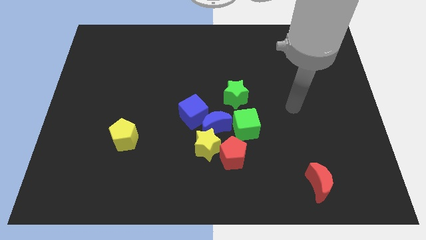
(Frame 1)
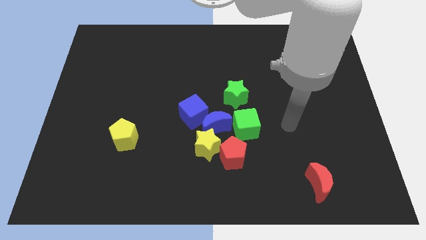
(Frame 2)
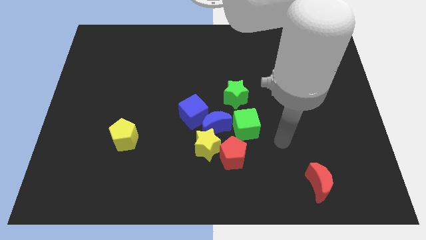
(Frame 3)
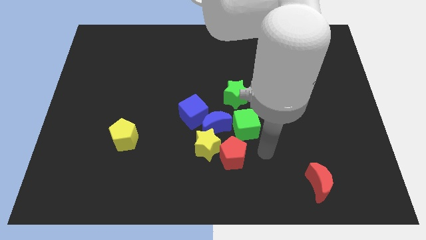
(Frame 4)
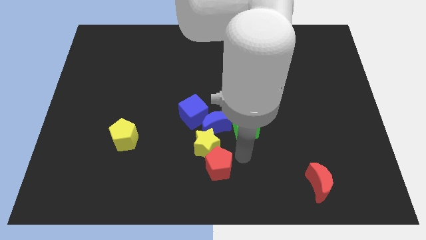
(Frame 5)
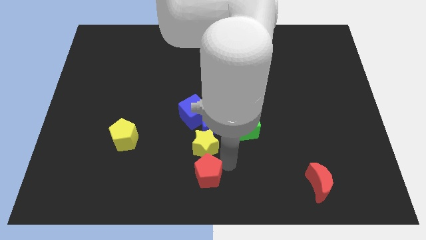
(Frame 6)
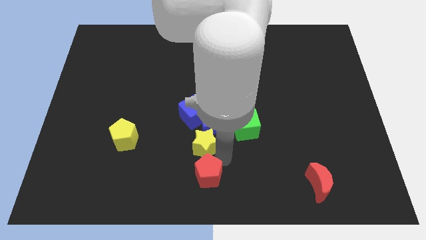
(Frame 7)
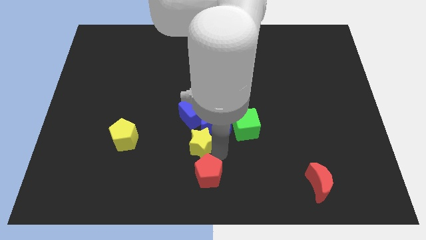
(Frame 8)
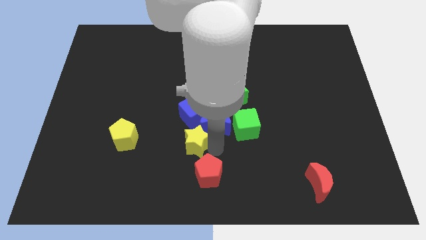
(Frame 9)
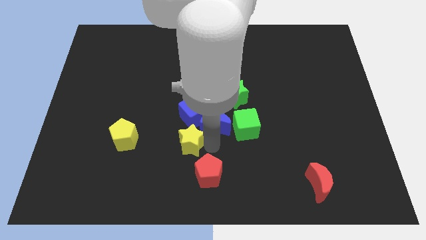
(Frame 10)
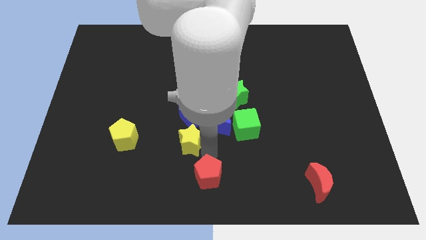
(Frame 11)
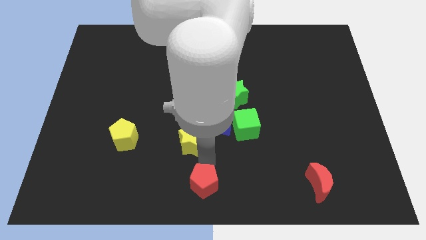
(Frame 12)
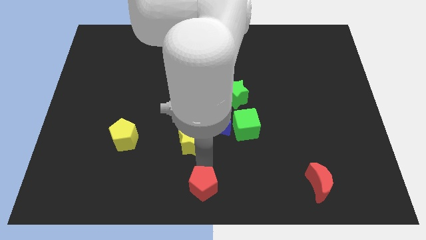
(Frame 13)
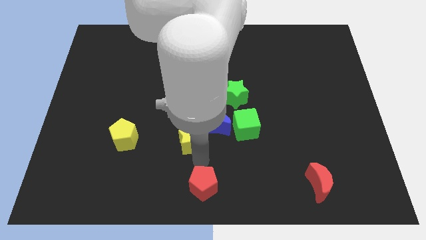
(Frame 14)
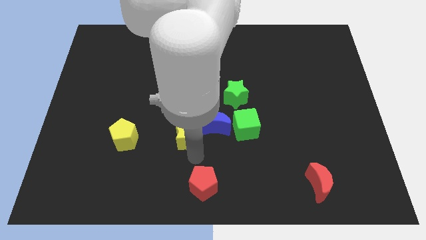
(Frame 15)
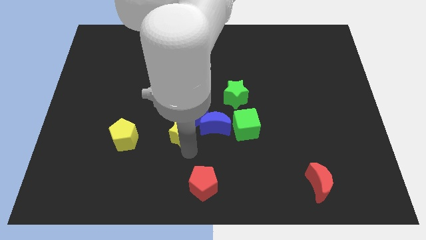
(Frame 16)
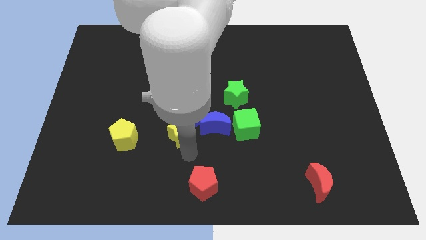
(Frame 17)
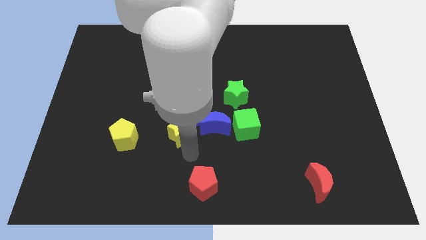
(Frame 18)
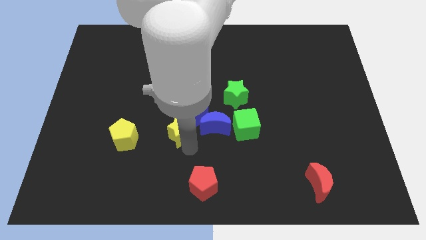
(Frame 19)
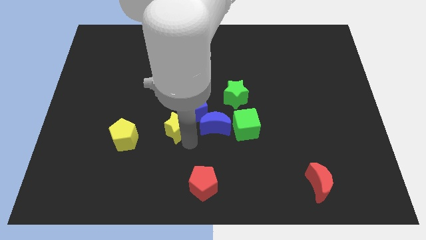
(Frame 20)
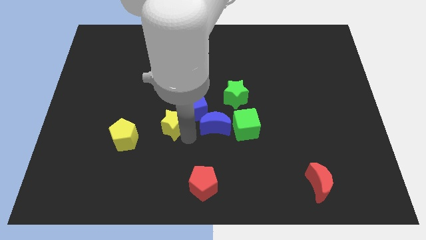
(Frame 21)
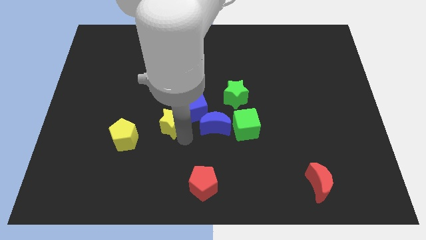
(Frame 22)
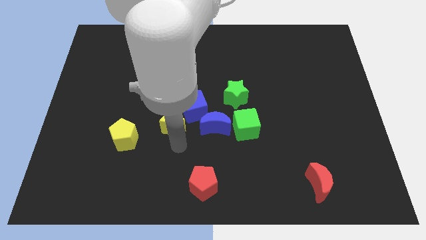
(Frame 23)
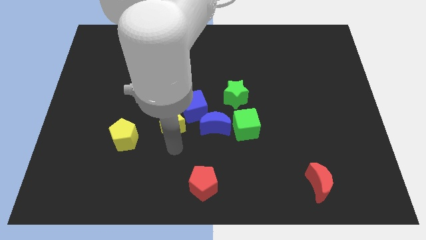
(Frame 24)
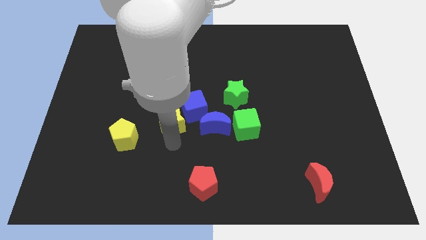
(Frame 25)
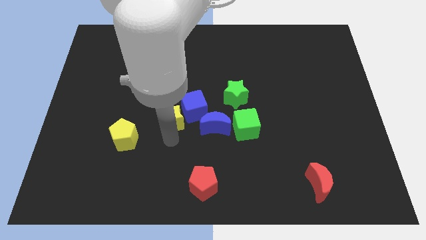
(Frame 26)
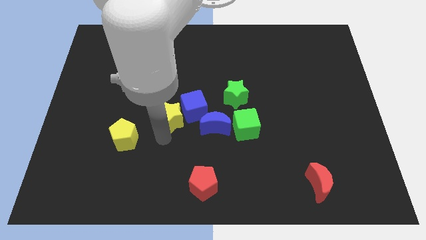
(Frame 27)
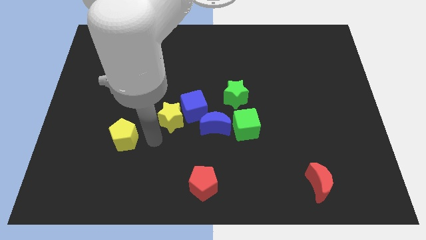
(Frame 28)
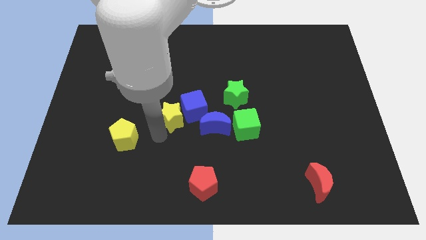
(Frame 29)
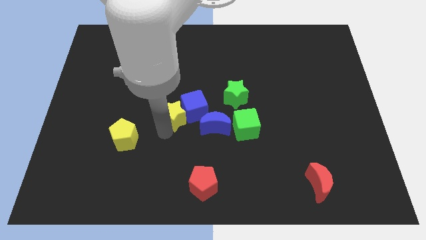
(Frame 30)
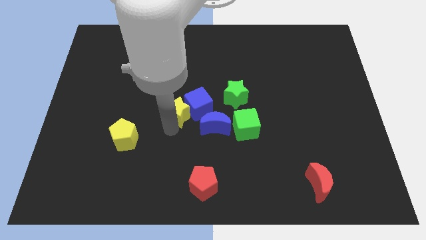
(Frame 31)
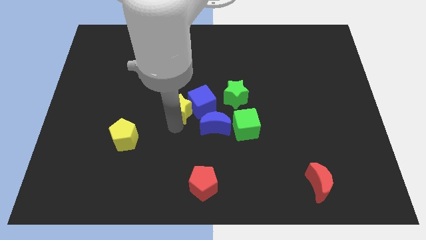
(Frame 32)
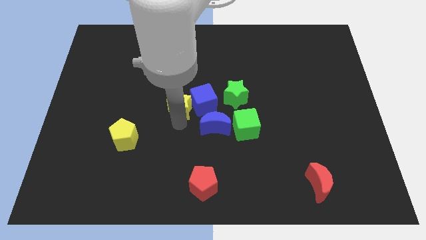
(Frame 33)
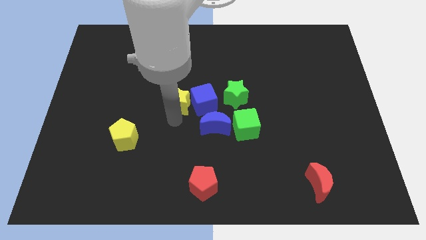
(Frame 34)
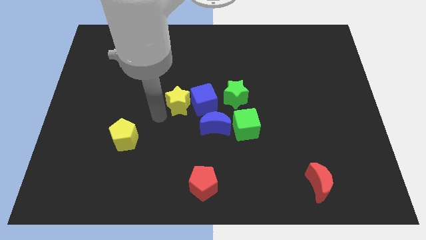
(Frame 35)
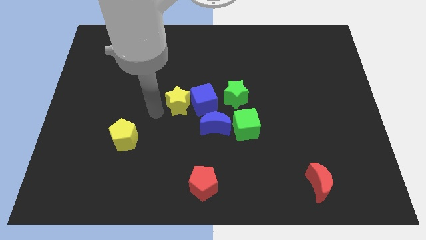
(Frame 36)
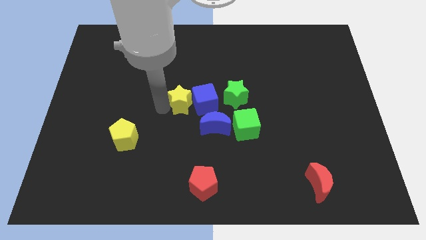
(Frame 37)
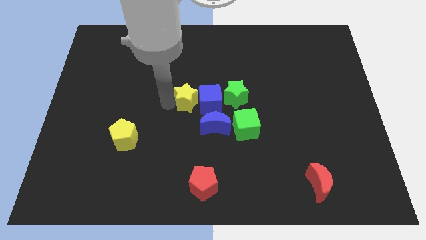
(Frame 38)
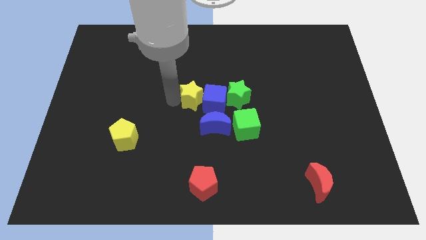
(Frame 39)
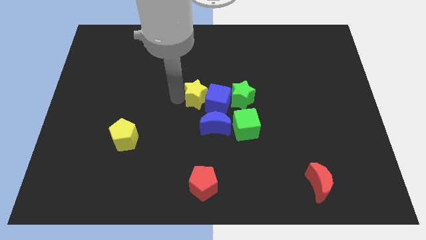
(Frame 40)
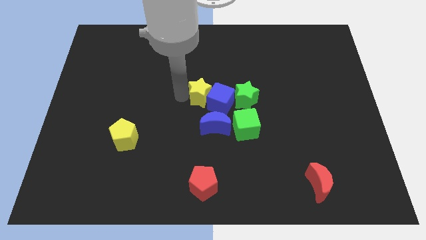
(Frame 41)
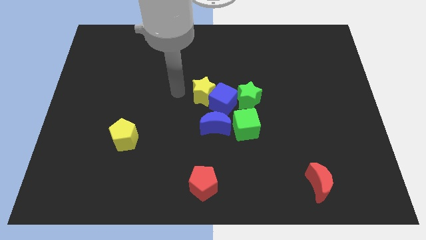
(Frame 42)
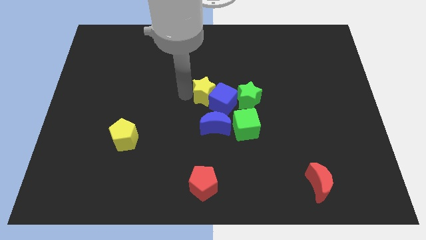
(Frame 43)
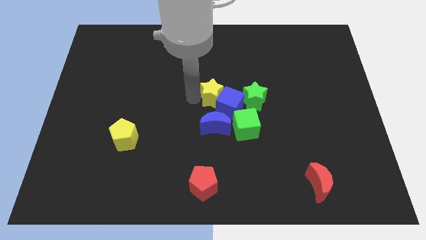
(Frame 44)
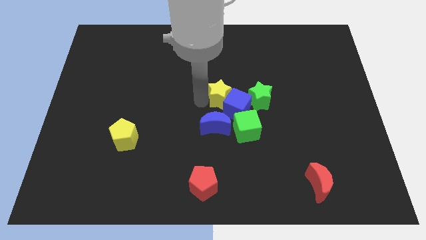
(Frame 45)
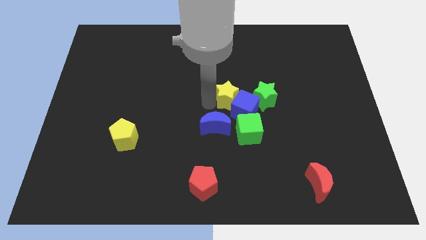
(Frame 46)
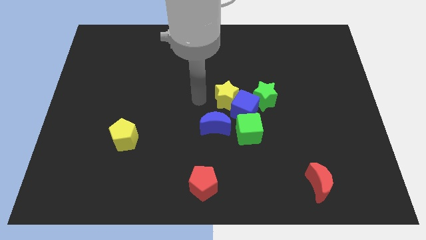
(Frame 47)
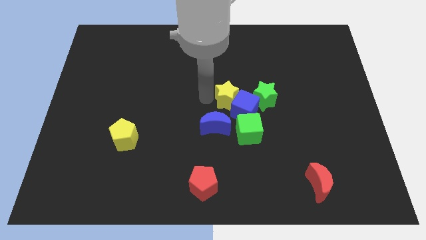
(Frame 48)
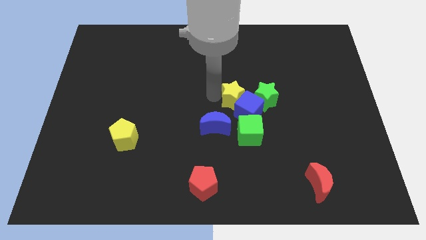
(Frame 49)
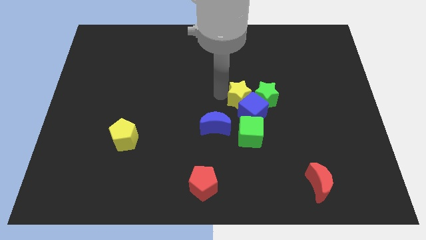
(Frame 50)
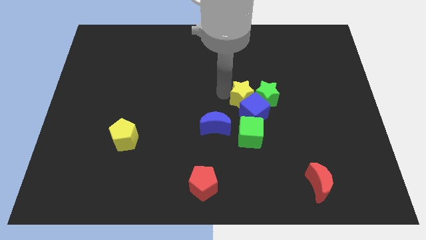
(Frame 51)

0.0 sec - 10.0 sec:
move the yellow star close to the green star

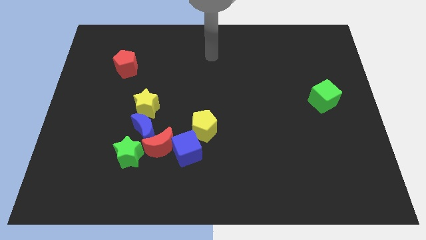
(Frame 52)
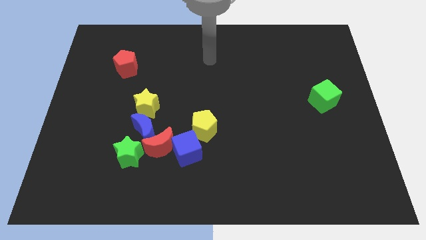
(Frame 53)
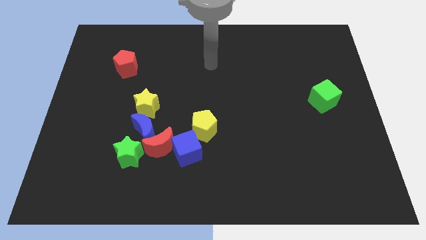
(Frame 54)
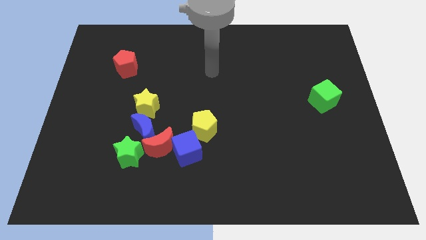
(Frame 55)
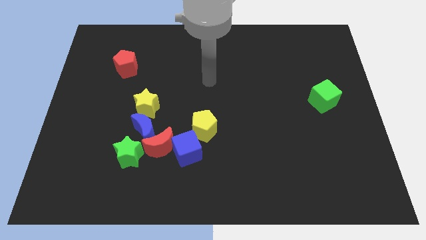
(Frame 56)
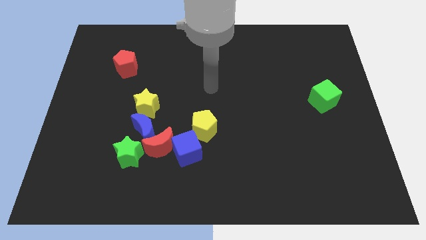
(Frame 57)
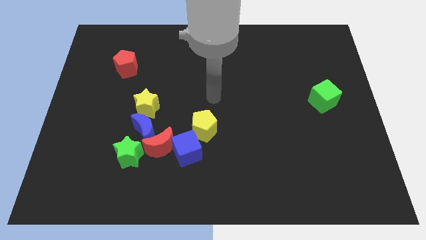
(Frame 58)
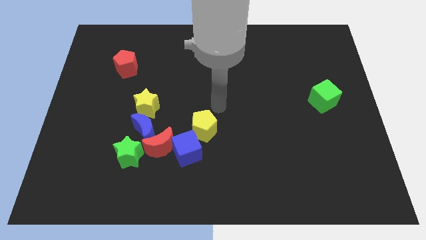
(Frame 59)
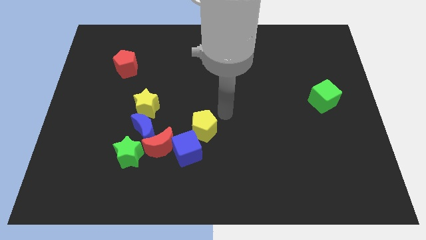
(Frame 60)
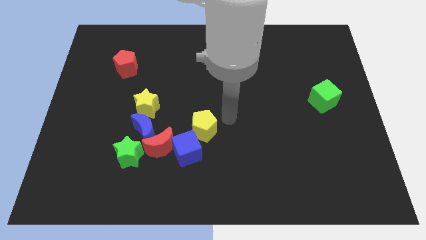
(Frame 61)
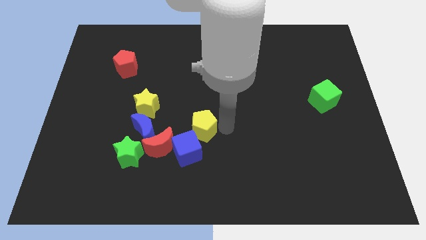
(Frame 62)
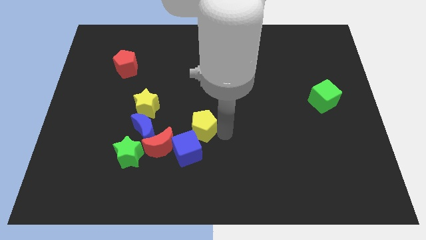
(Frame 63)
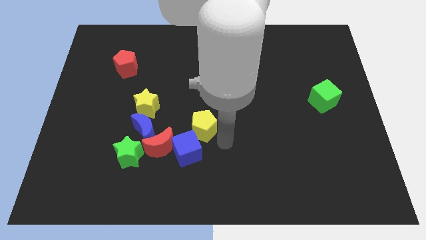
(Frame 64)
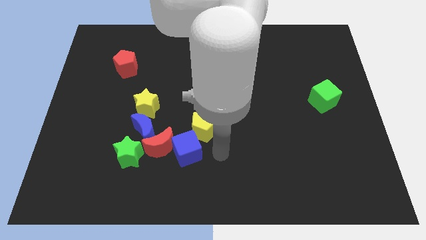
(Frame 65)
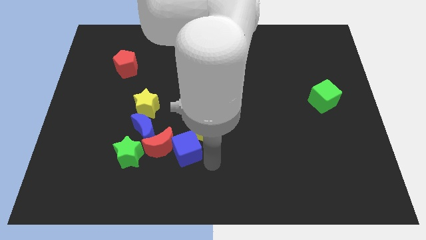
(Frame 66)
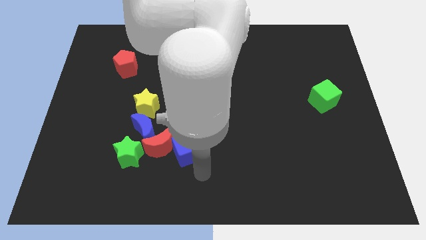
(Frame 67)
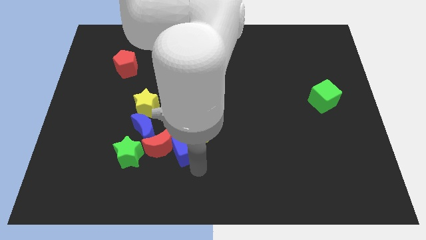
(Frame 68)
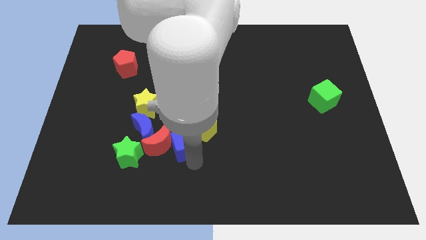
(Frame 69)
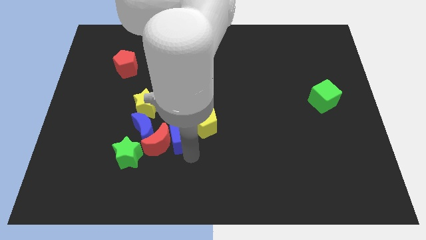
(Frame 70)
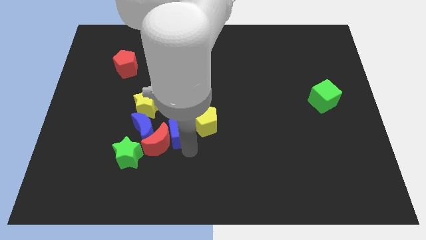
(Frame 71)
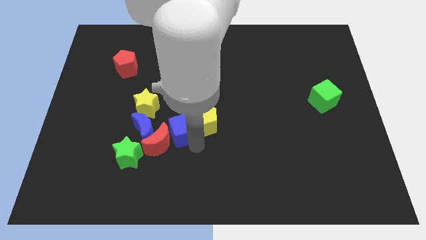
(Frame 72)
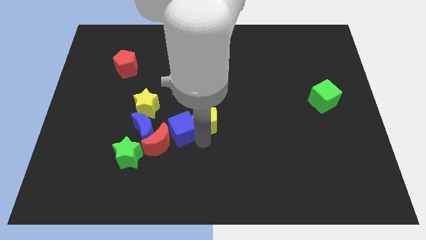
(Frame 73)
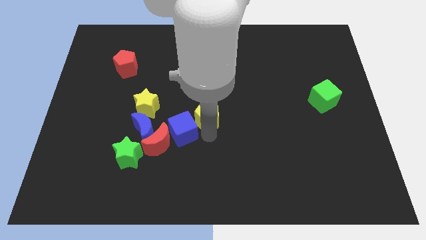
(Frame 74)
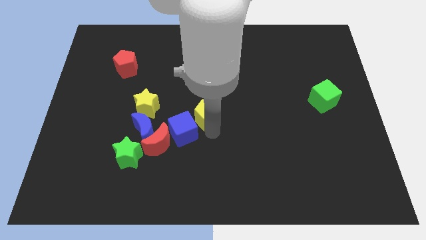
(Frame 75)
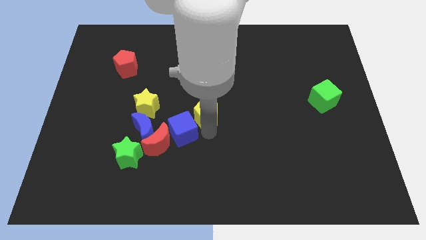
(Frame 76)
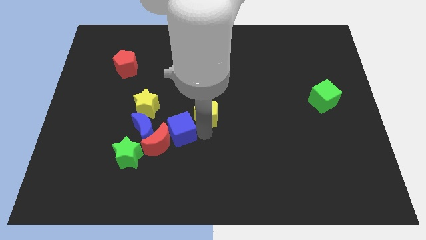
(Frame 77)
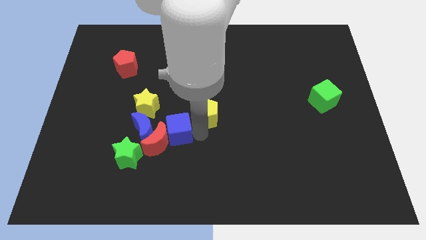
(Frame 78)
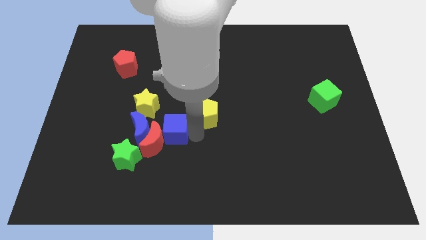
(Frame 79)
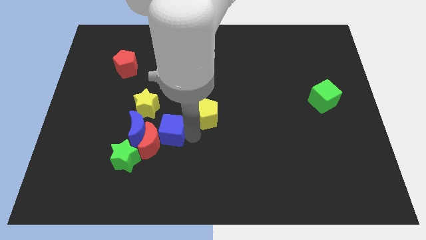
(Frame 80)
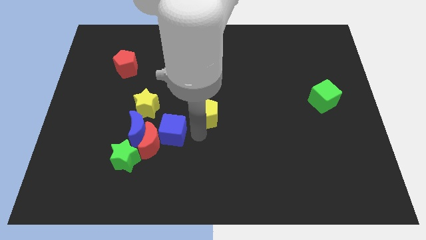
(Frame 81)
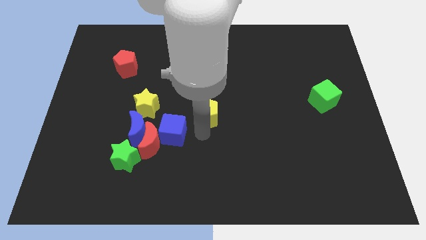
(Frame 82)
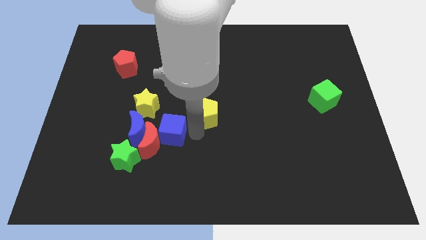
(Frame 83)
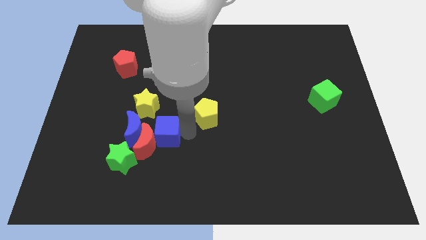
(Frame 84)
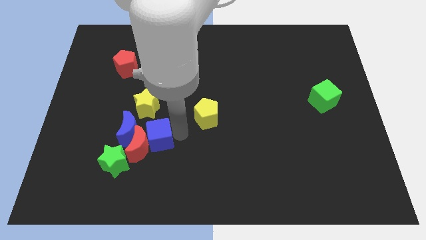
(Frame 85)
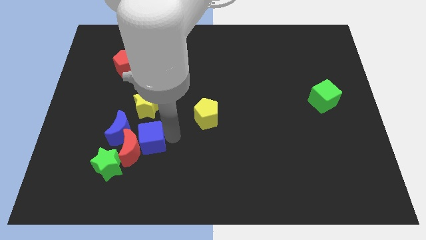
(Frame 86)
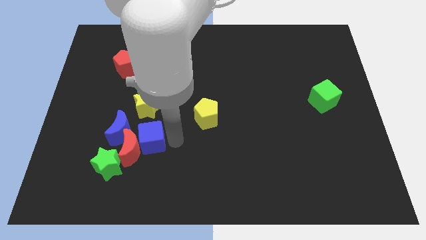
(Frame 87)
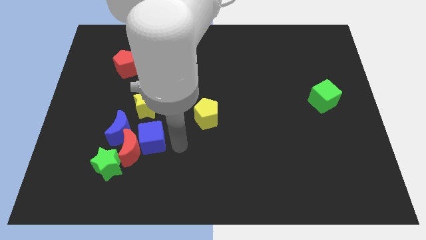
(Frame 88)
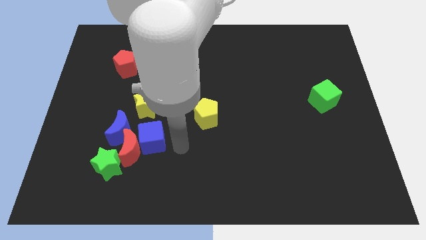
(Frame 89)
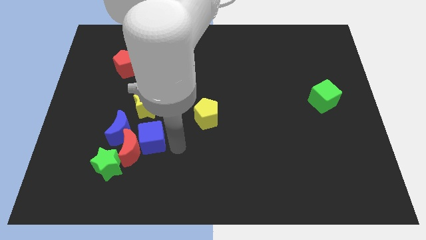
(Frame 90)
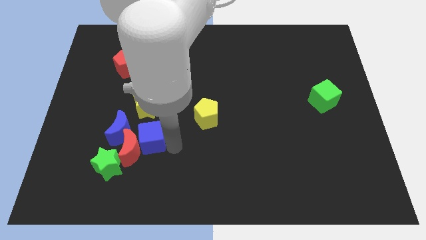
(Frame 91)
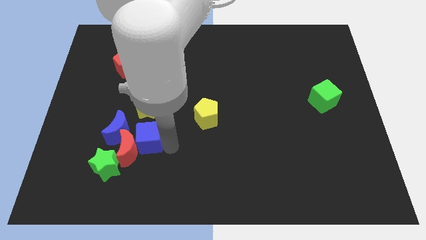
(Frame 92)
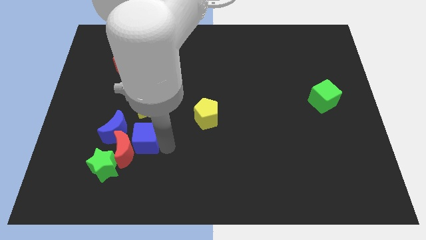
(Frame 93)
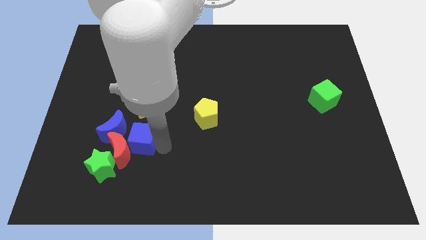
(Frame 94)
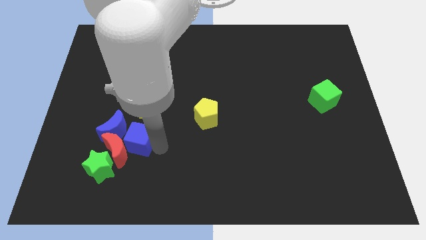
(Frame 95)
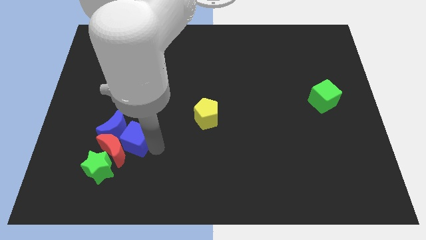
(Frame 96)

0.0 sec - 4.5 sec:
slide the blue cube towards the blue moon
